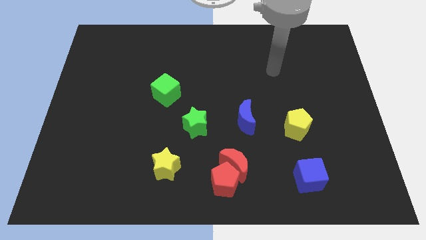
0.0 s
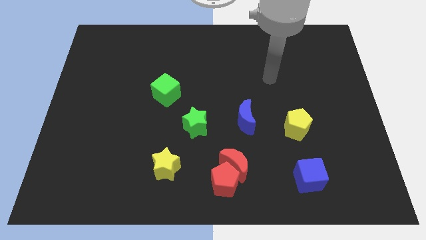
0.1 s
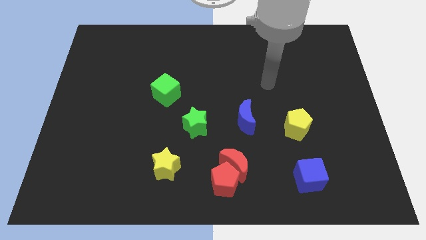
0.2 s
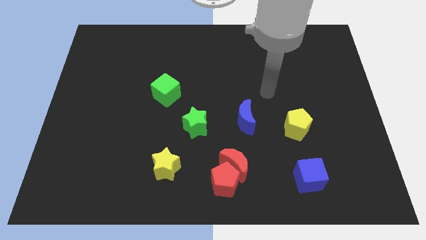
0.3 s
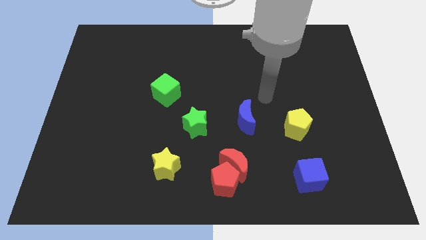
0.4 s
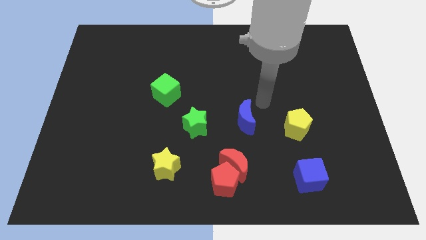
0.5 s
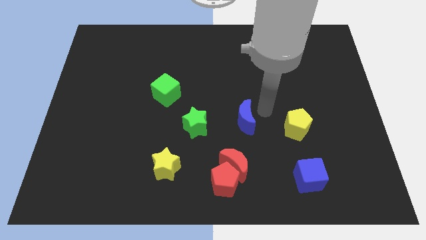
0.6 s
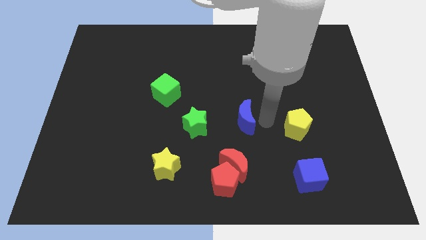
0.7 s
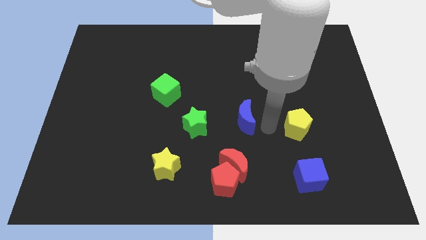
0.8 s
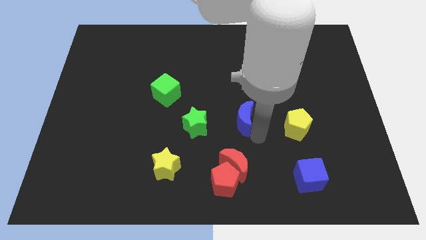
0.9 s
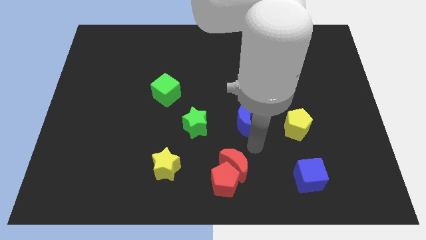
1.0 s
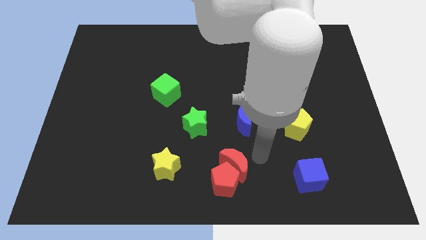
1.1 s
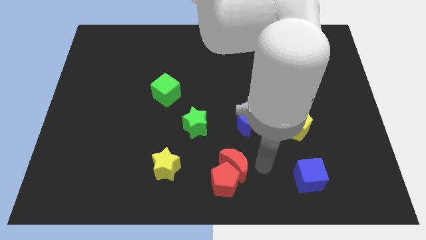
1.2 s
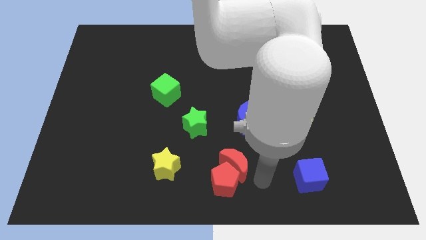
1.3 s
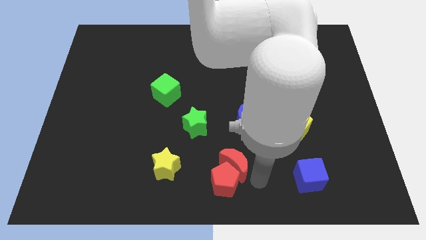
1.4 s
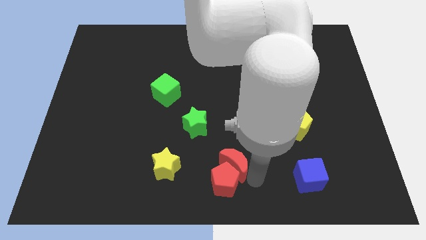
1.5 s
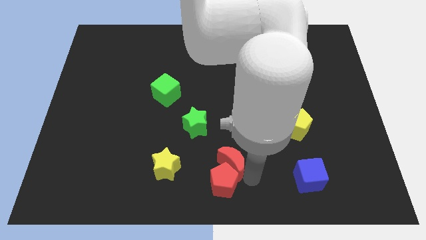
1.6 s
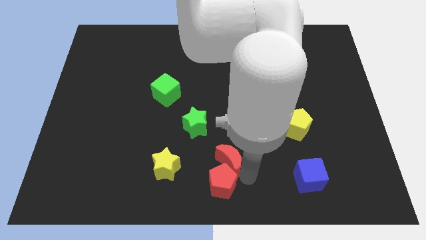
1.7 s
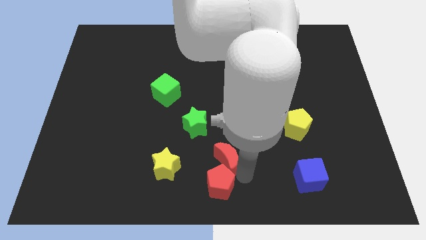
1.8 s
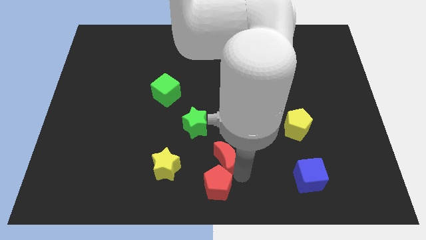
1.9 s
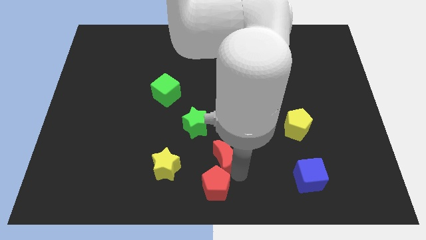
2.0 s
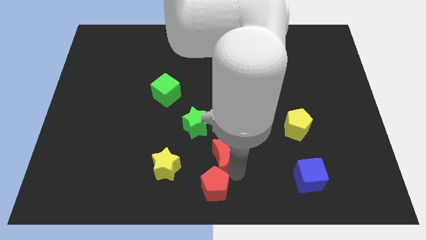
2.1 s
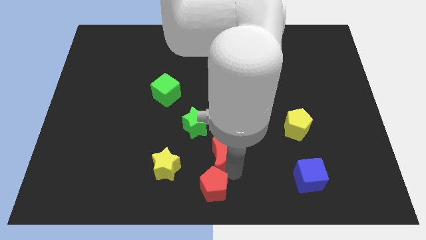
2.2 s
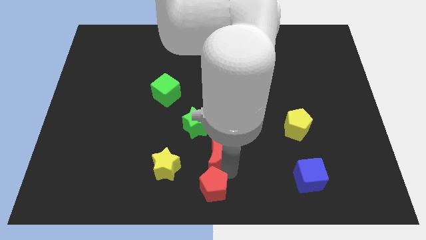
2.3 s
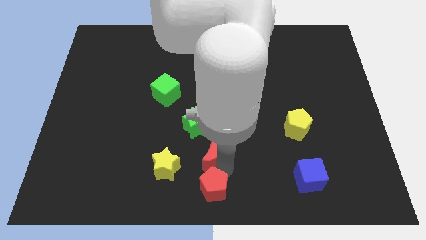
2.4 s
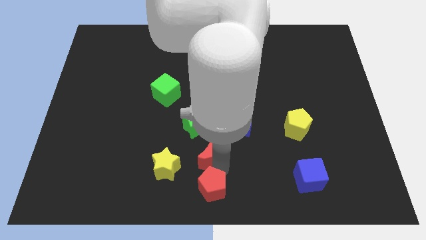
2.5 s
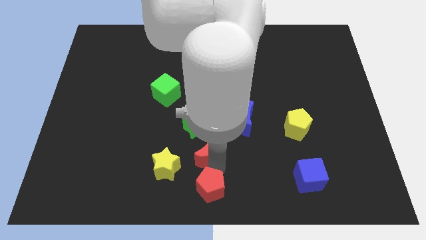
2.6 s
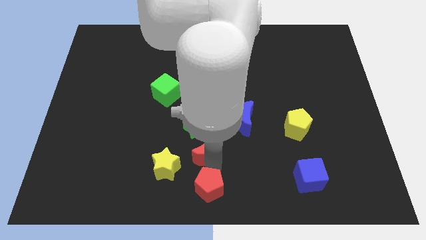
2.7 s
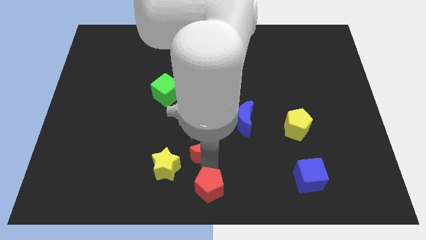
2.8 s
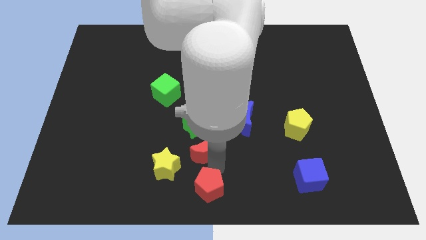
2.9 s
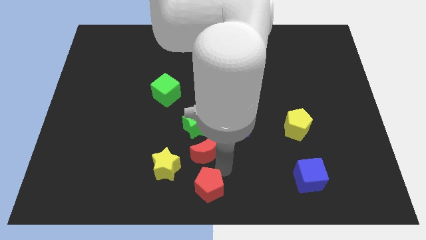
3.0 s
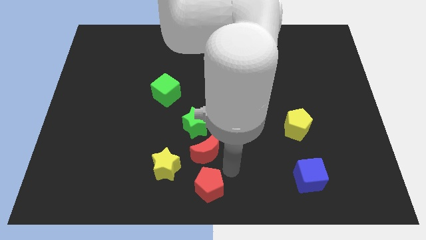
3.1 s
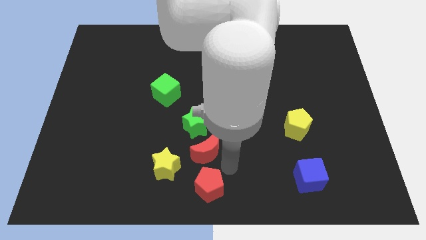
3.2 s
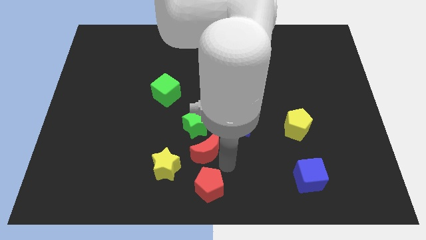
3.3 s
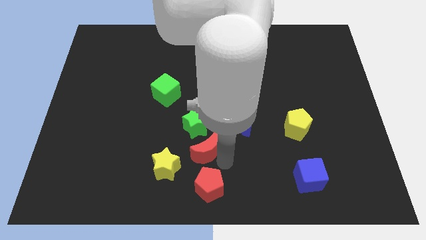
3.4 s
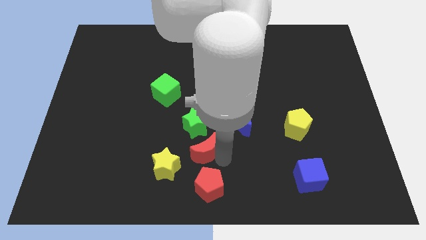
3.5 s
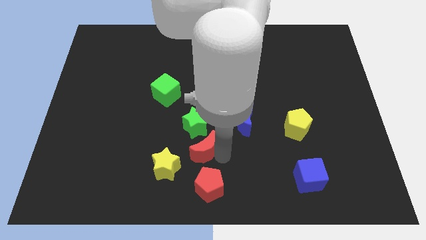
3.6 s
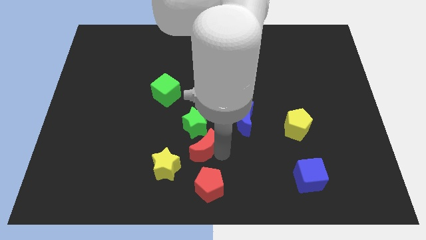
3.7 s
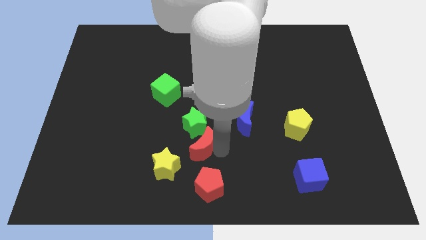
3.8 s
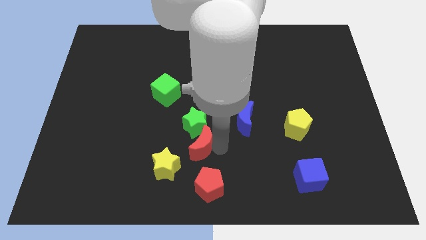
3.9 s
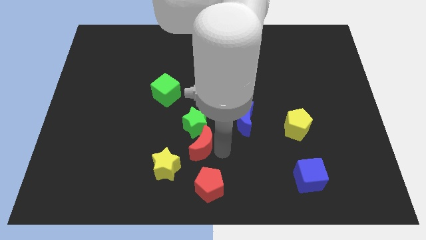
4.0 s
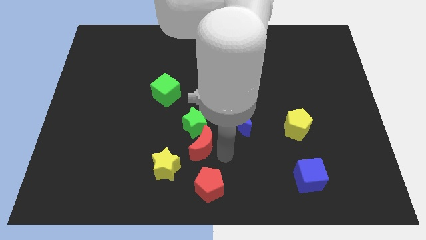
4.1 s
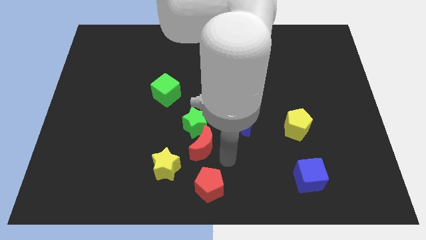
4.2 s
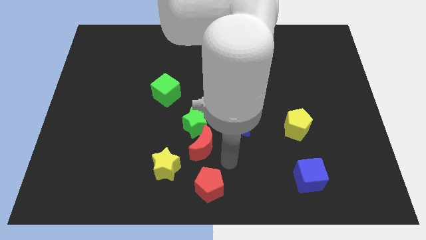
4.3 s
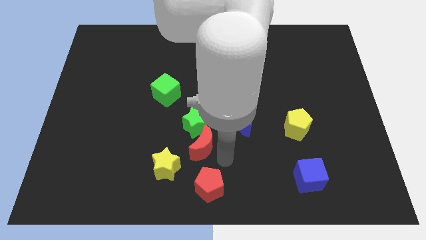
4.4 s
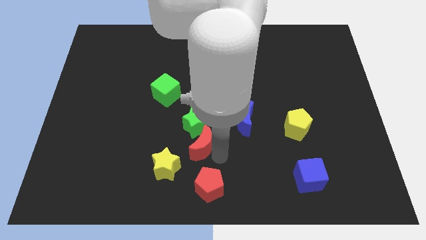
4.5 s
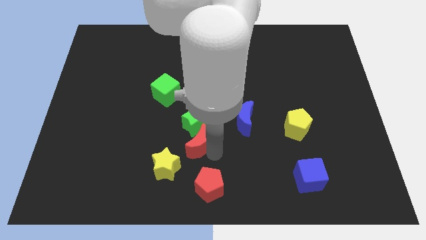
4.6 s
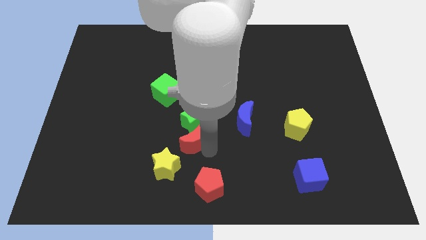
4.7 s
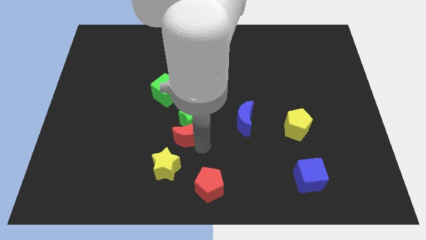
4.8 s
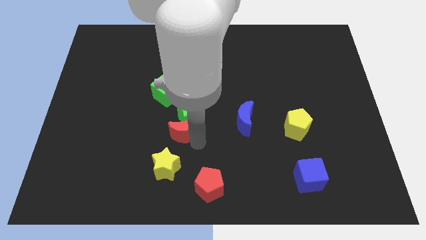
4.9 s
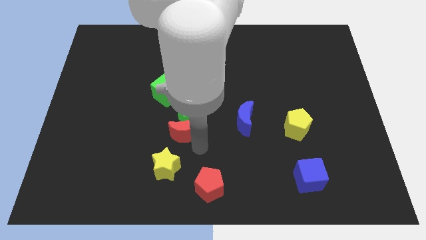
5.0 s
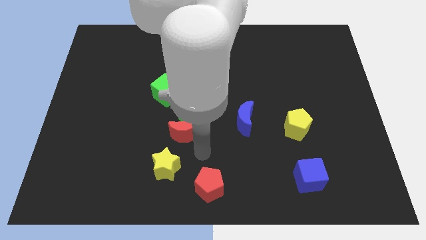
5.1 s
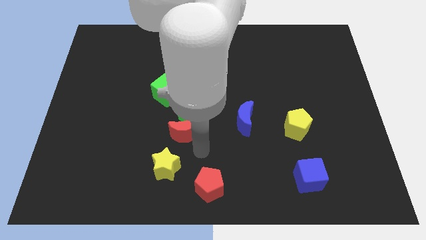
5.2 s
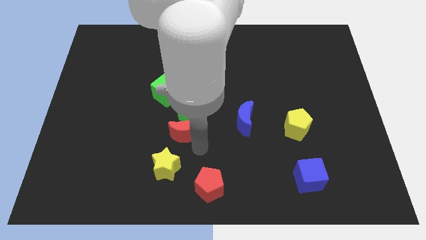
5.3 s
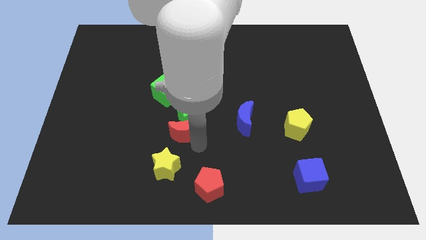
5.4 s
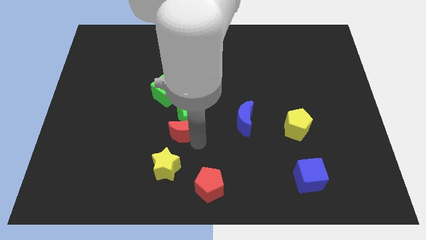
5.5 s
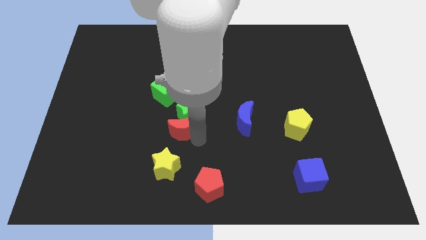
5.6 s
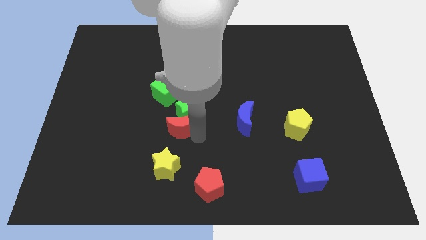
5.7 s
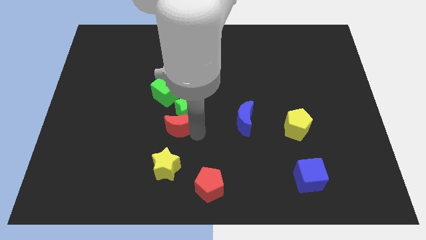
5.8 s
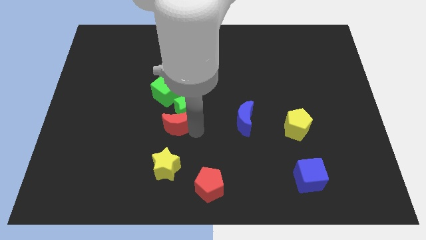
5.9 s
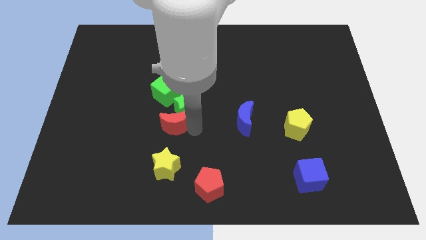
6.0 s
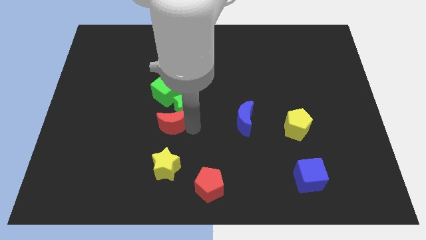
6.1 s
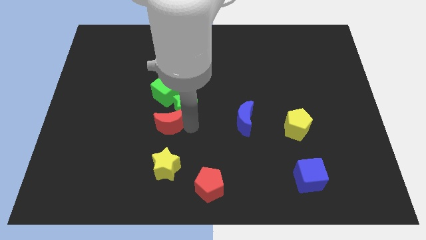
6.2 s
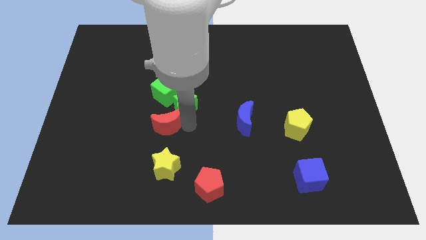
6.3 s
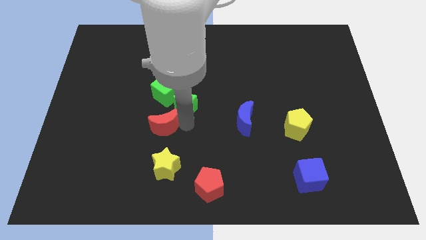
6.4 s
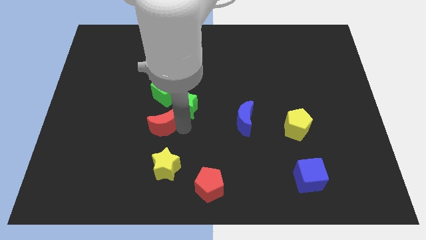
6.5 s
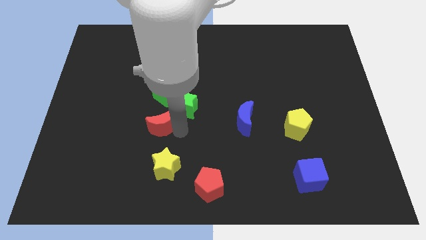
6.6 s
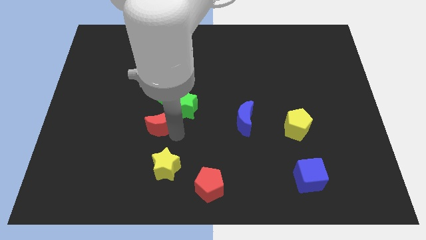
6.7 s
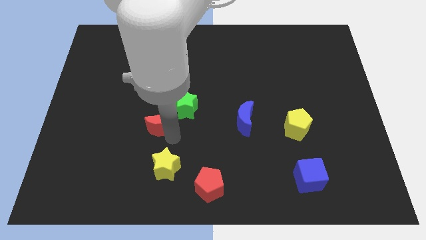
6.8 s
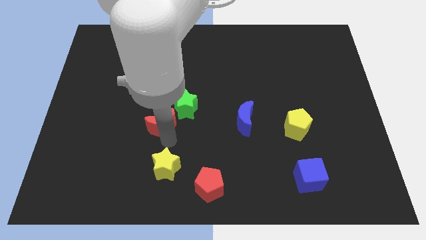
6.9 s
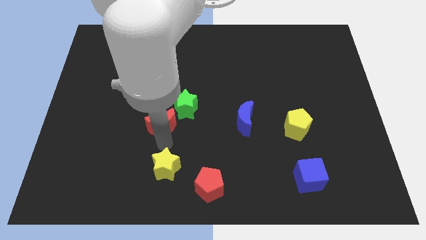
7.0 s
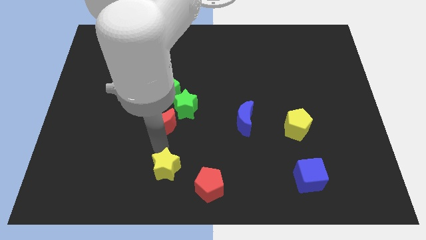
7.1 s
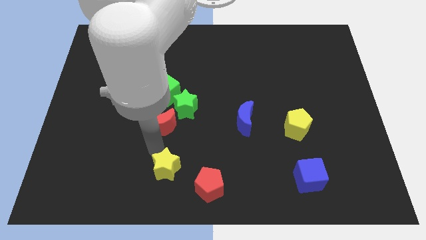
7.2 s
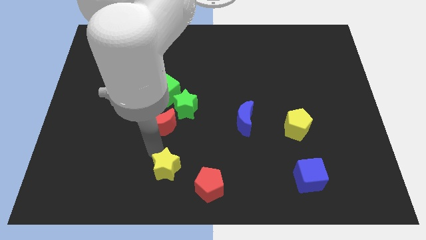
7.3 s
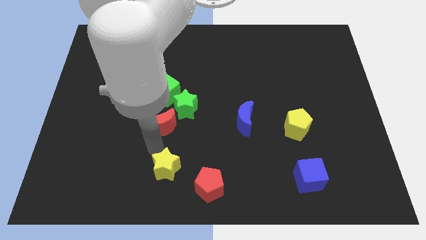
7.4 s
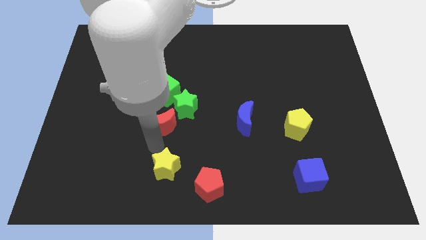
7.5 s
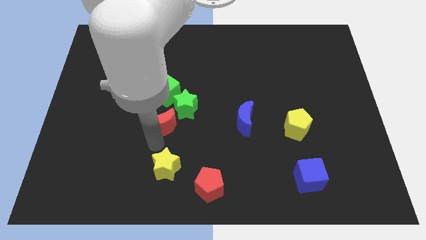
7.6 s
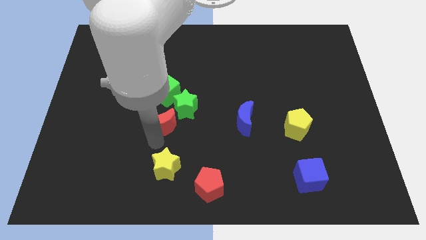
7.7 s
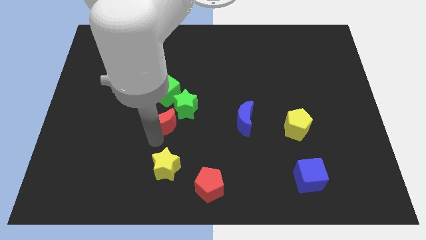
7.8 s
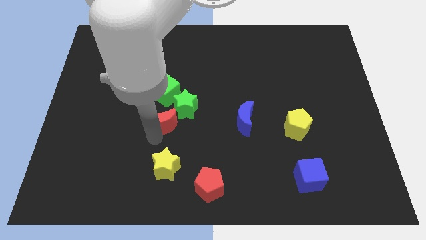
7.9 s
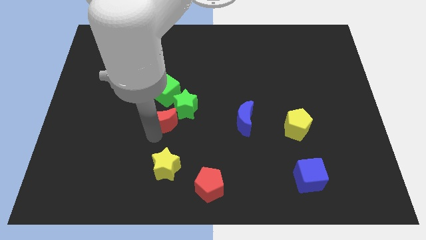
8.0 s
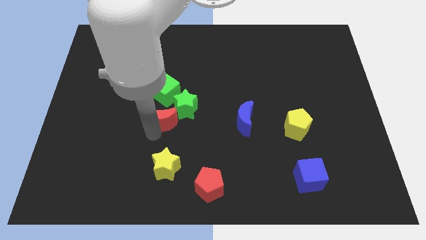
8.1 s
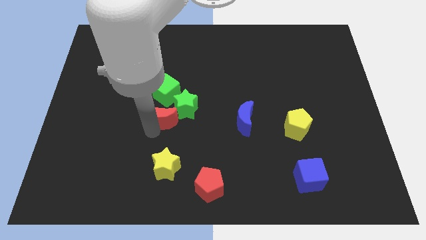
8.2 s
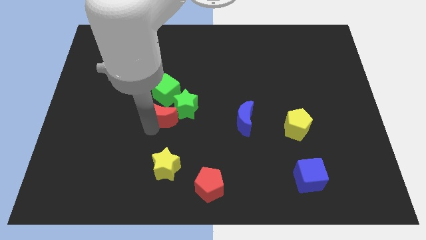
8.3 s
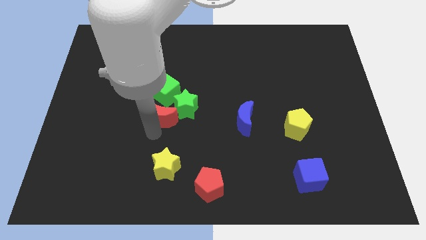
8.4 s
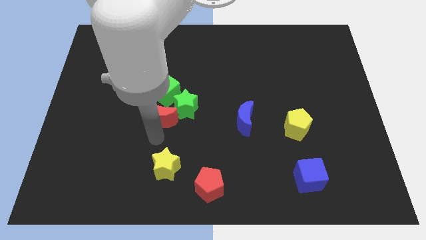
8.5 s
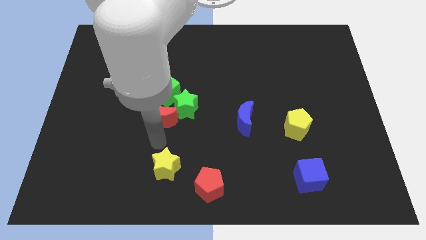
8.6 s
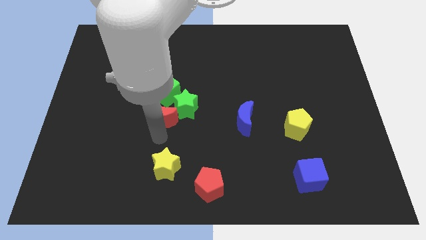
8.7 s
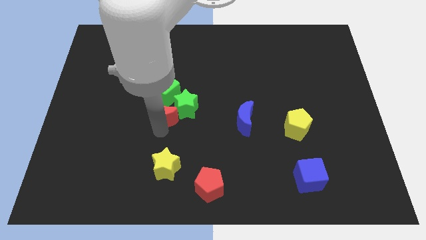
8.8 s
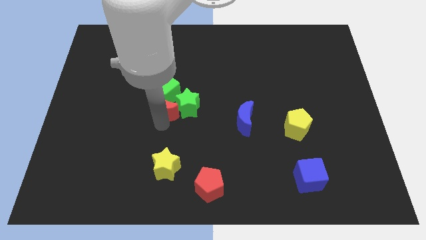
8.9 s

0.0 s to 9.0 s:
put the red moon next to the green cube
